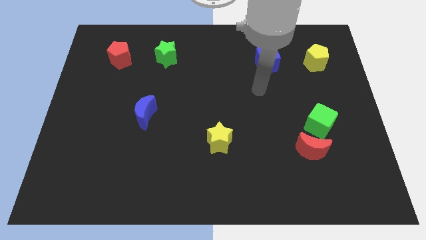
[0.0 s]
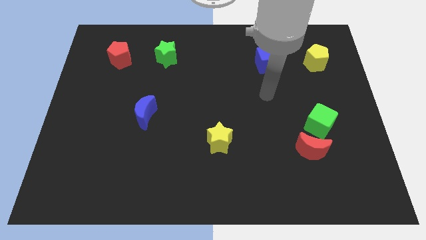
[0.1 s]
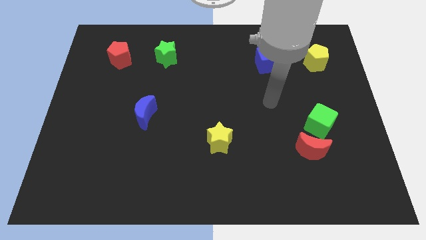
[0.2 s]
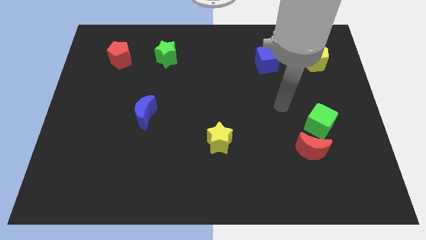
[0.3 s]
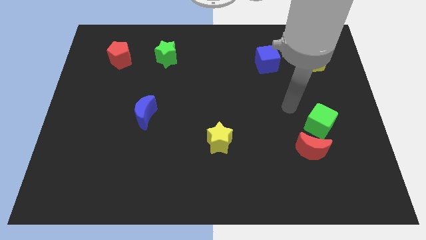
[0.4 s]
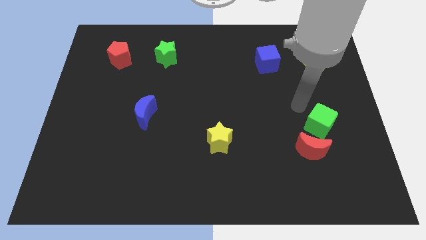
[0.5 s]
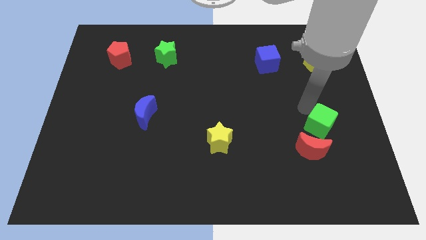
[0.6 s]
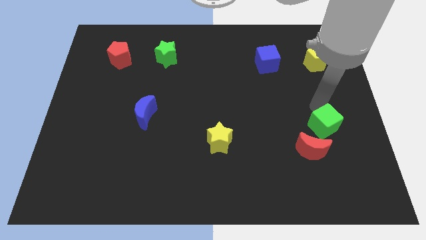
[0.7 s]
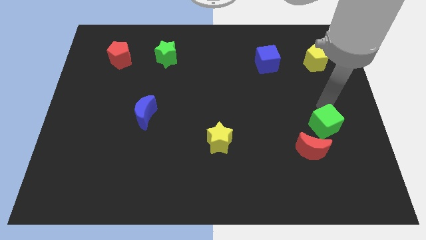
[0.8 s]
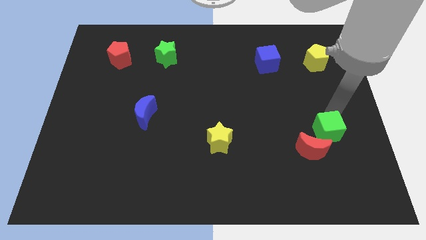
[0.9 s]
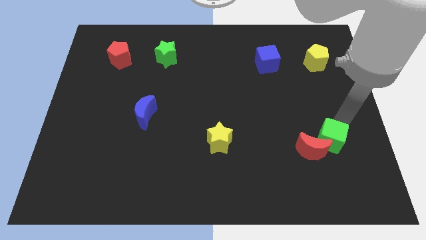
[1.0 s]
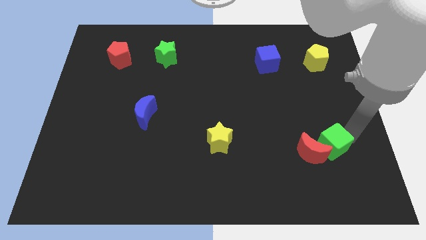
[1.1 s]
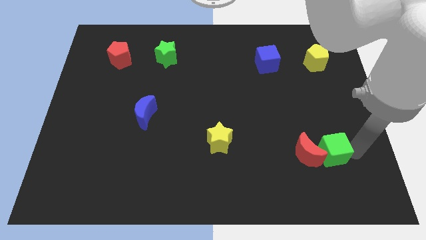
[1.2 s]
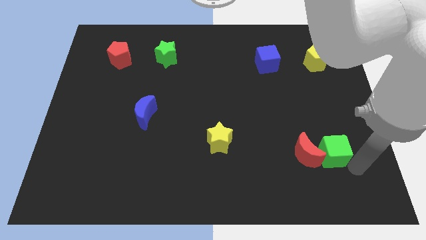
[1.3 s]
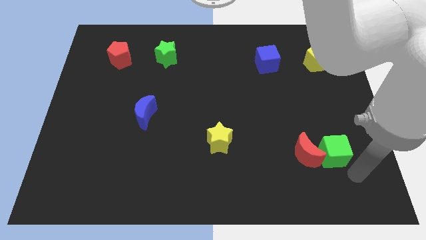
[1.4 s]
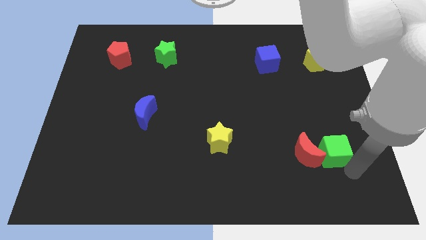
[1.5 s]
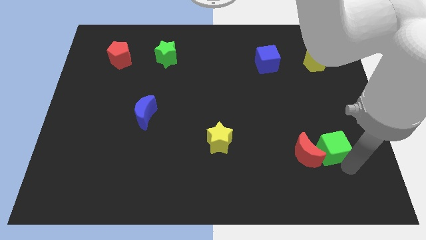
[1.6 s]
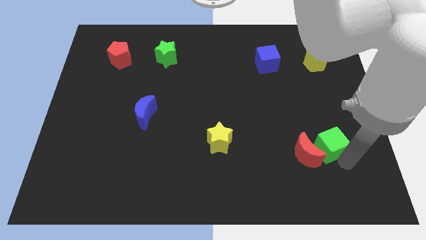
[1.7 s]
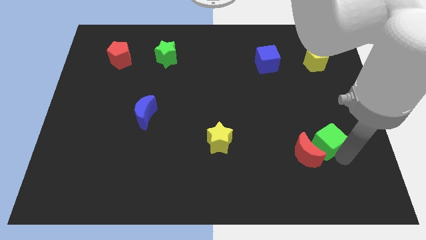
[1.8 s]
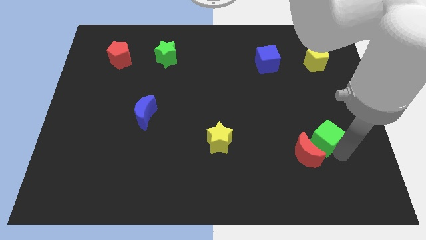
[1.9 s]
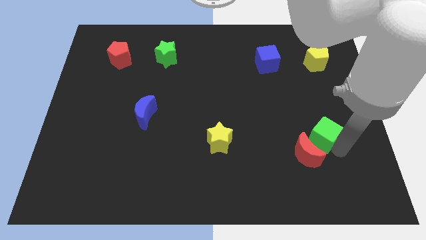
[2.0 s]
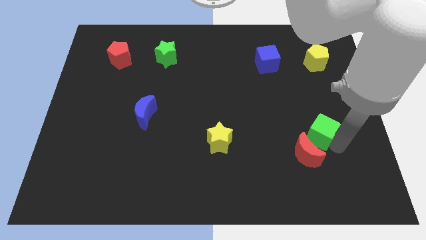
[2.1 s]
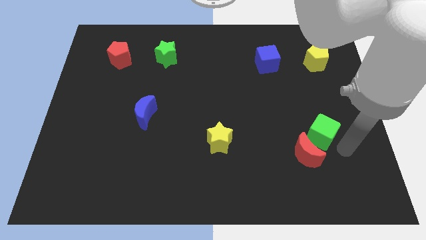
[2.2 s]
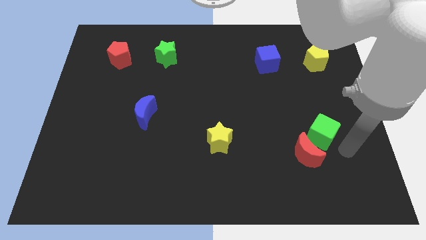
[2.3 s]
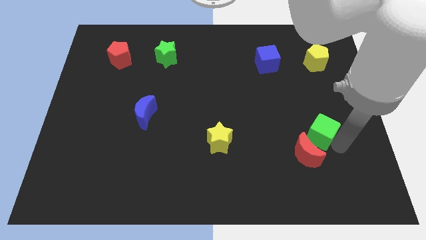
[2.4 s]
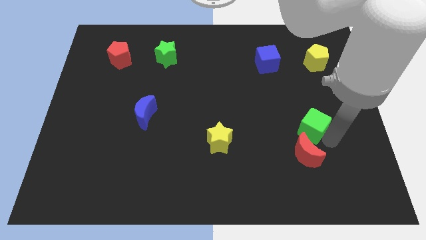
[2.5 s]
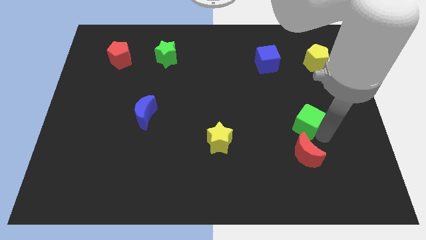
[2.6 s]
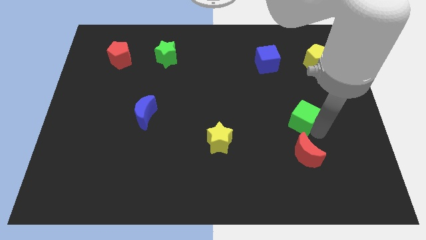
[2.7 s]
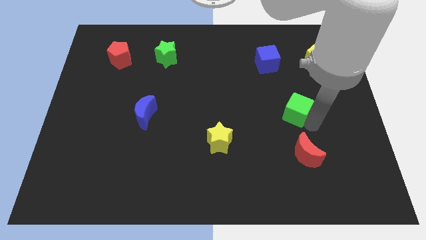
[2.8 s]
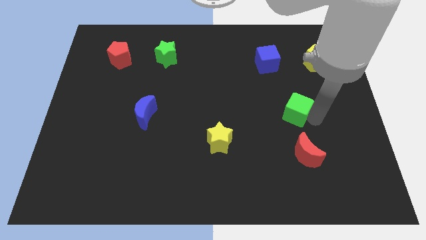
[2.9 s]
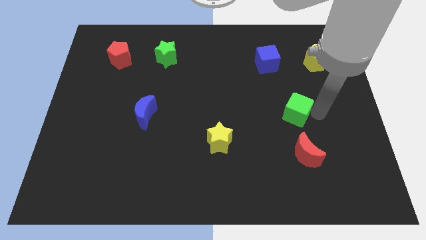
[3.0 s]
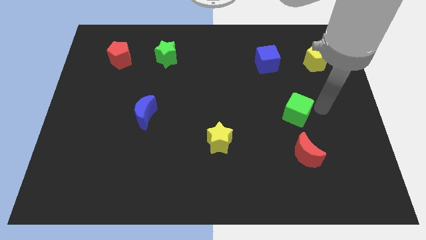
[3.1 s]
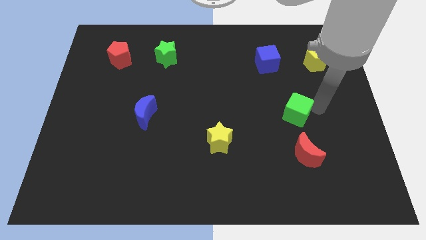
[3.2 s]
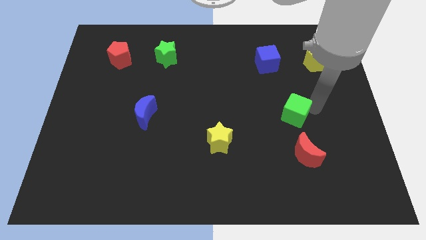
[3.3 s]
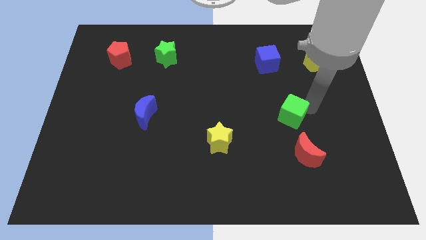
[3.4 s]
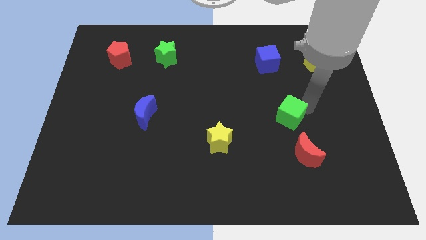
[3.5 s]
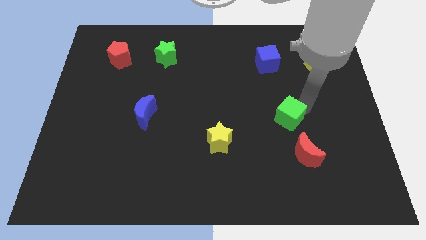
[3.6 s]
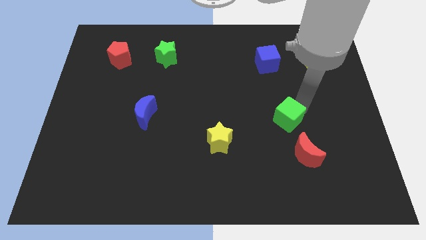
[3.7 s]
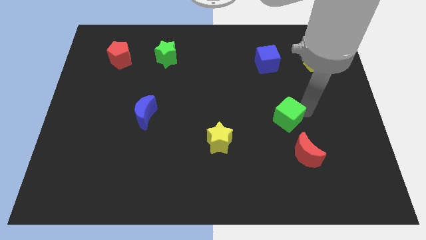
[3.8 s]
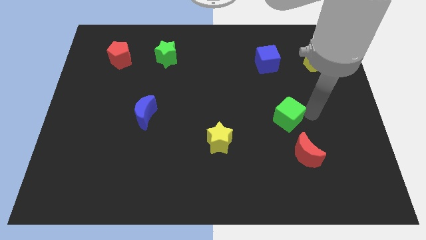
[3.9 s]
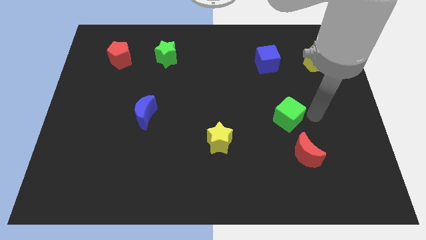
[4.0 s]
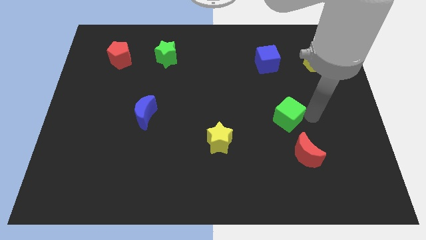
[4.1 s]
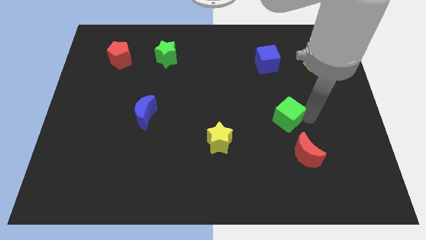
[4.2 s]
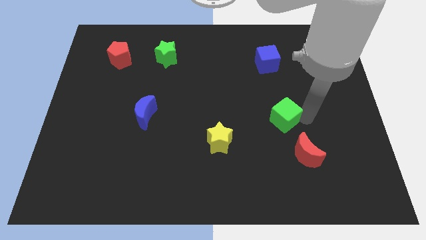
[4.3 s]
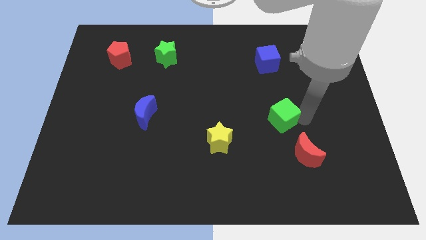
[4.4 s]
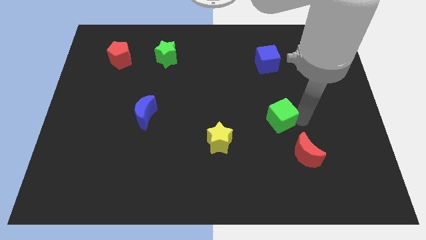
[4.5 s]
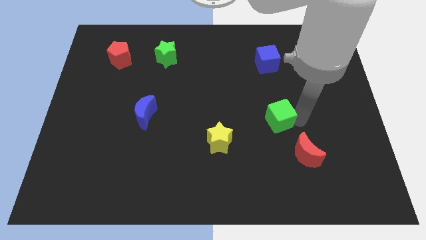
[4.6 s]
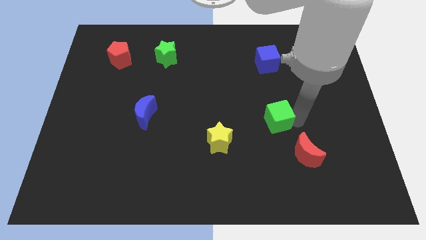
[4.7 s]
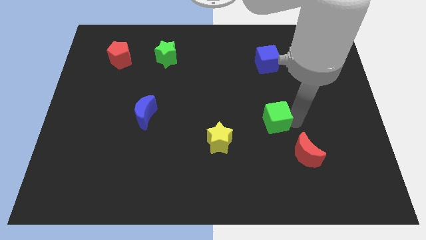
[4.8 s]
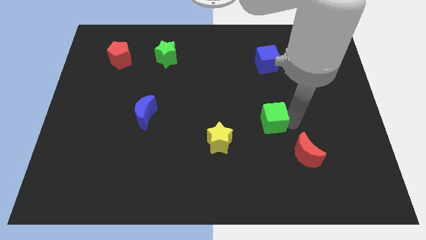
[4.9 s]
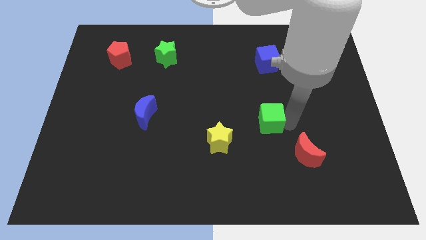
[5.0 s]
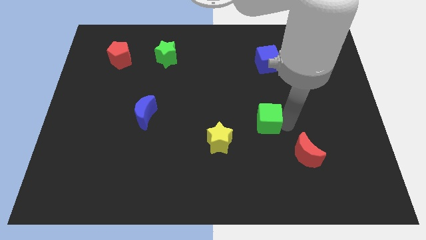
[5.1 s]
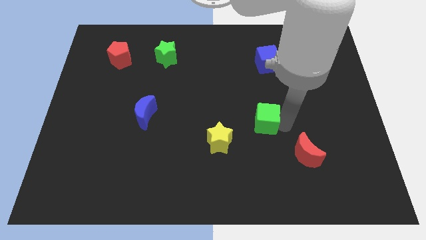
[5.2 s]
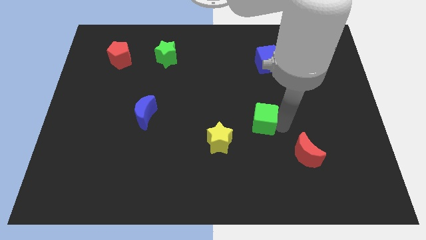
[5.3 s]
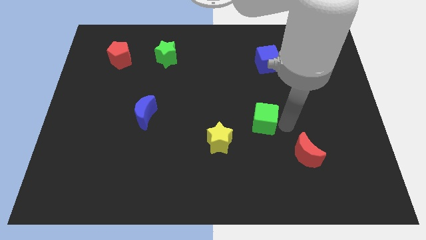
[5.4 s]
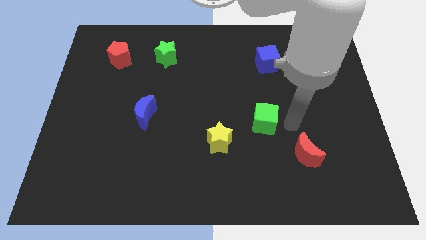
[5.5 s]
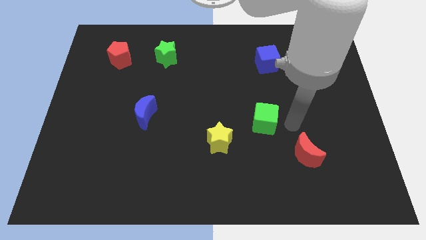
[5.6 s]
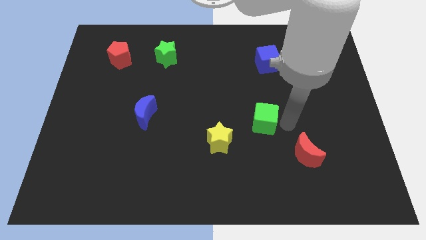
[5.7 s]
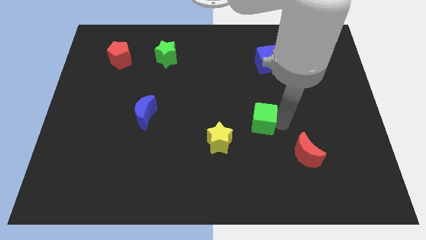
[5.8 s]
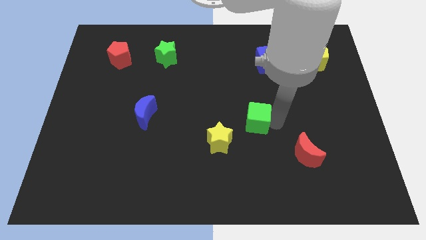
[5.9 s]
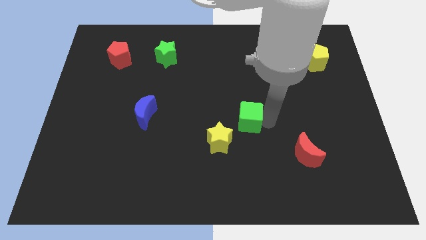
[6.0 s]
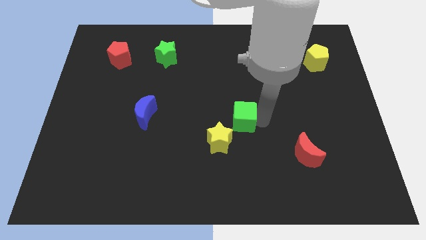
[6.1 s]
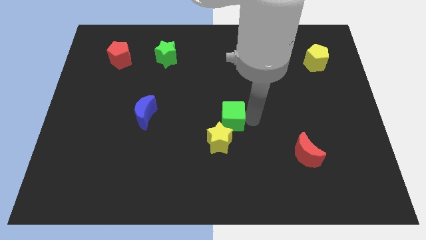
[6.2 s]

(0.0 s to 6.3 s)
move the green cube to the left

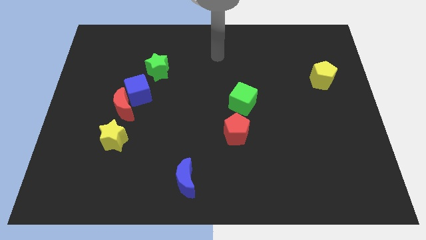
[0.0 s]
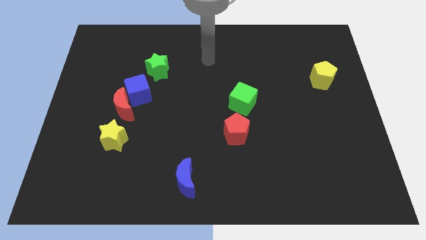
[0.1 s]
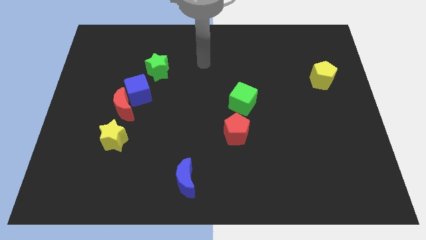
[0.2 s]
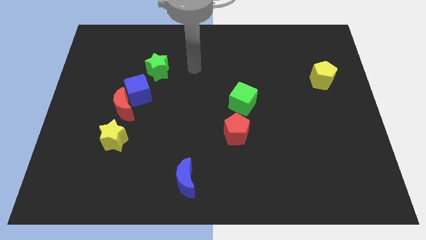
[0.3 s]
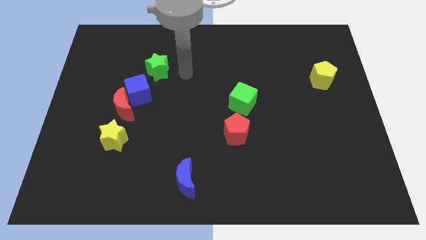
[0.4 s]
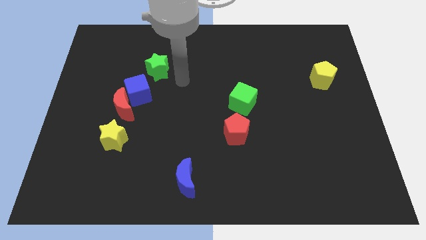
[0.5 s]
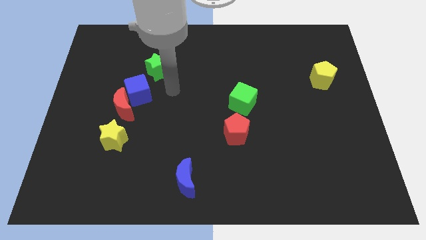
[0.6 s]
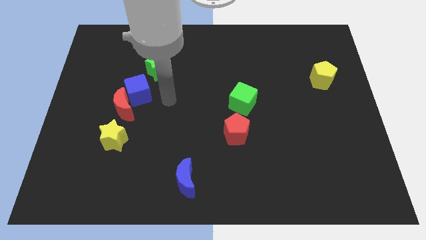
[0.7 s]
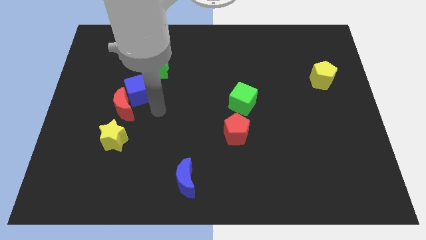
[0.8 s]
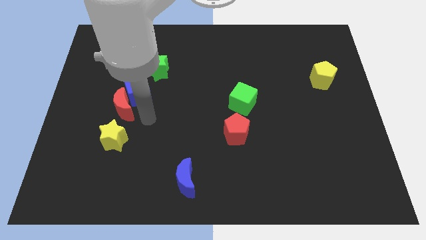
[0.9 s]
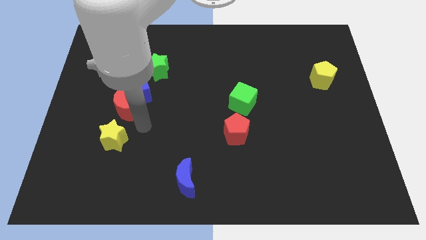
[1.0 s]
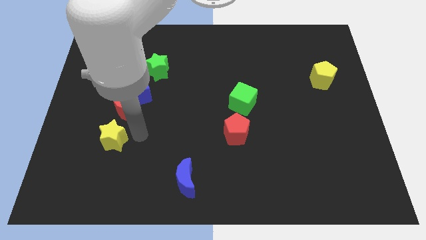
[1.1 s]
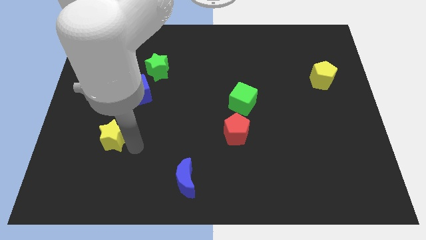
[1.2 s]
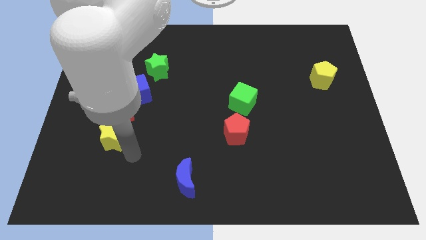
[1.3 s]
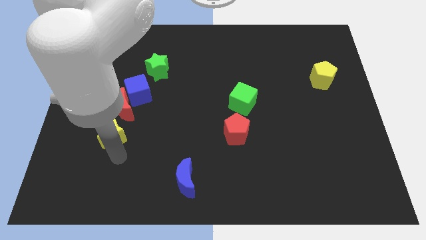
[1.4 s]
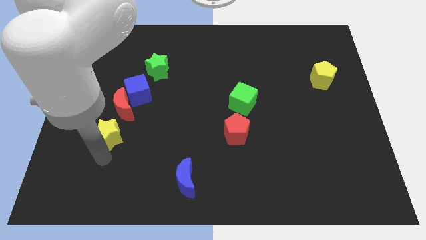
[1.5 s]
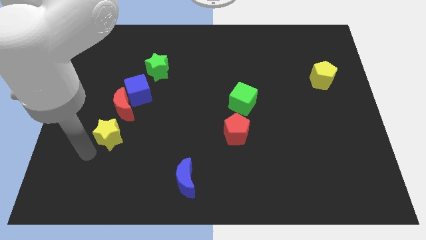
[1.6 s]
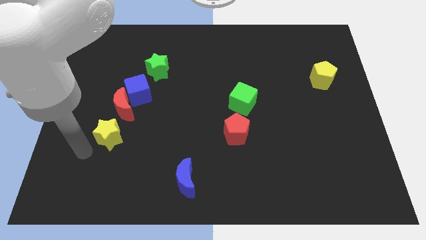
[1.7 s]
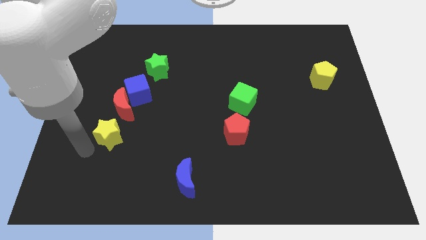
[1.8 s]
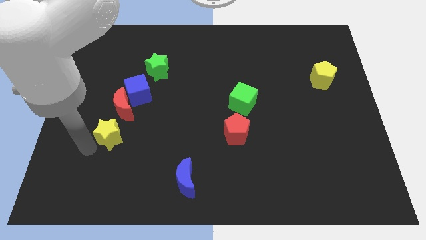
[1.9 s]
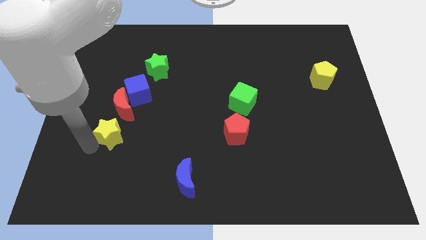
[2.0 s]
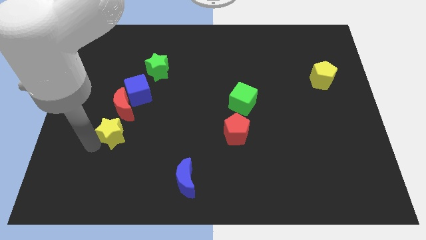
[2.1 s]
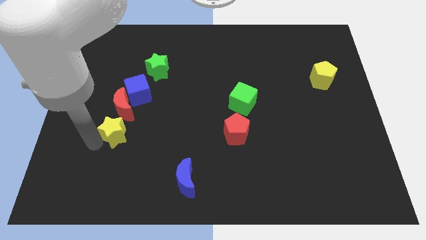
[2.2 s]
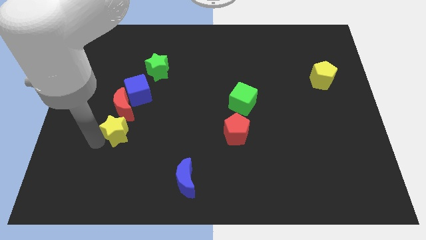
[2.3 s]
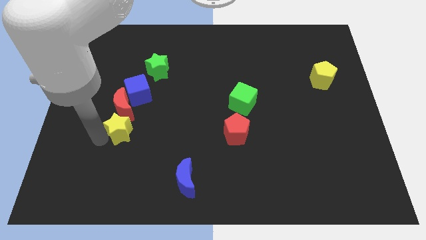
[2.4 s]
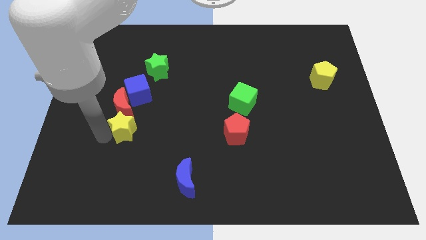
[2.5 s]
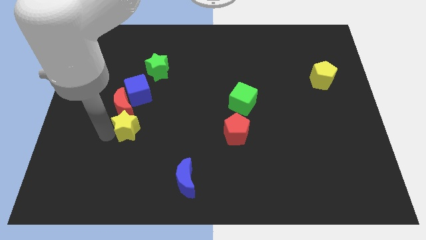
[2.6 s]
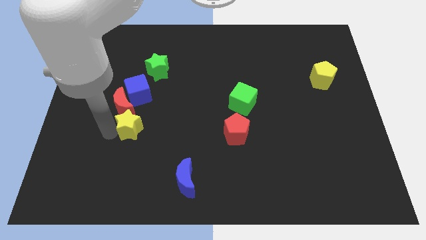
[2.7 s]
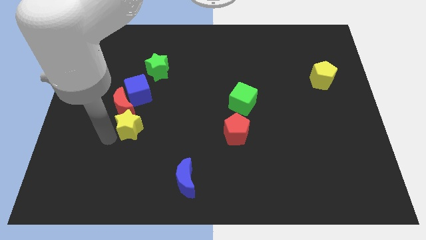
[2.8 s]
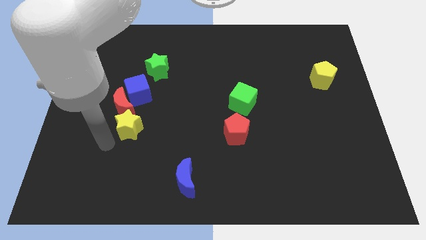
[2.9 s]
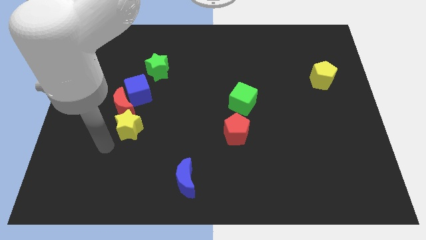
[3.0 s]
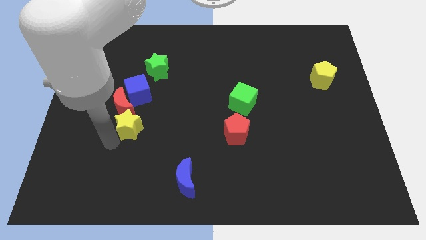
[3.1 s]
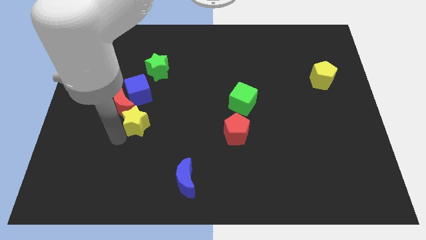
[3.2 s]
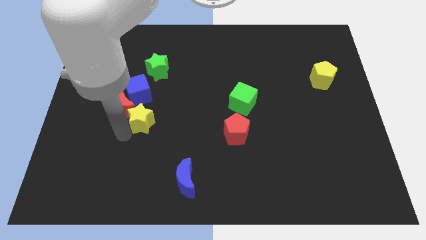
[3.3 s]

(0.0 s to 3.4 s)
push the yellow star slightly upwards and to the right diagonally
